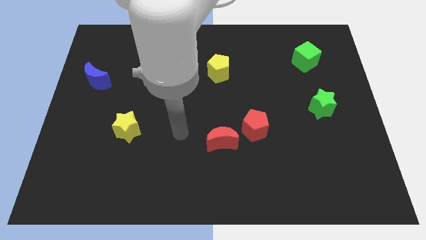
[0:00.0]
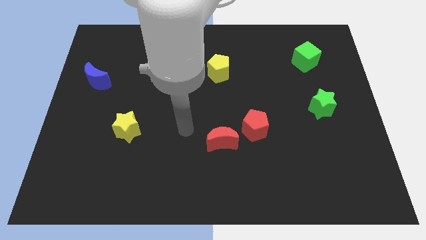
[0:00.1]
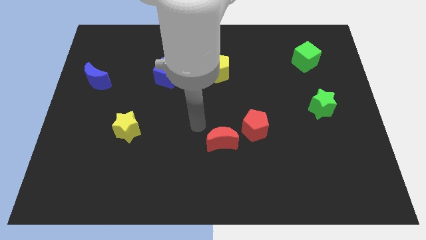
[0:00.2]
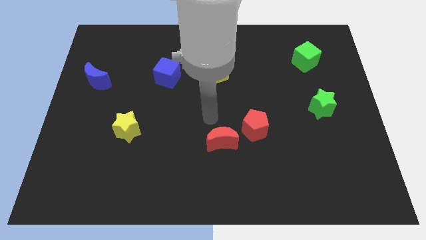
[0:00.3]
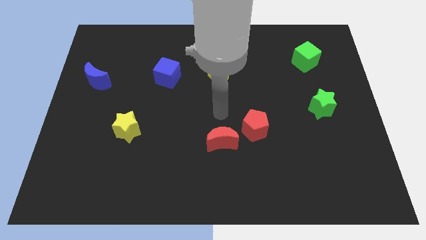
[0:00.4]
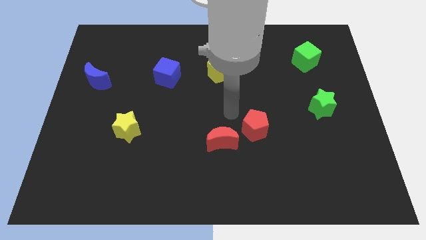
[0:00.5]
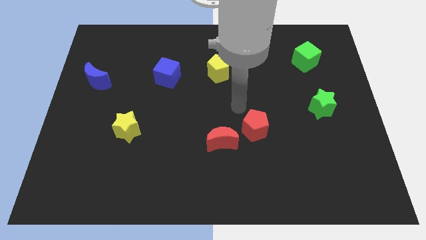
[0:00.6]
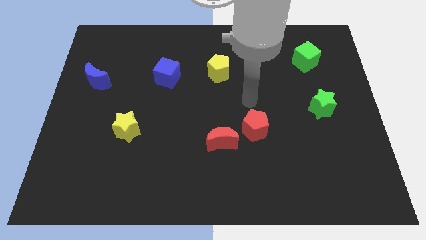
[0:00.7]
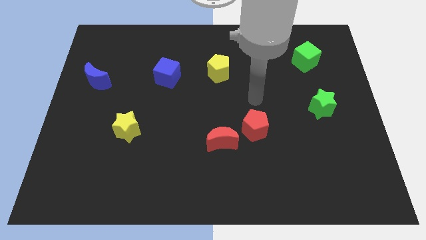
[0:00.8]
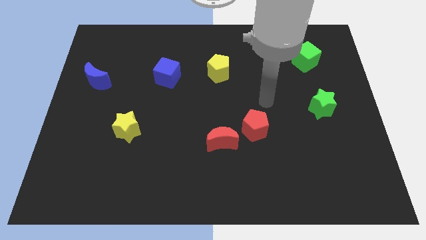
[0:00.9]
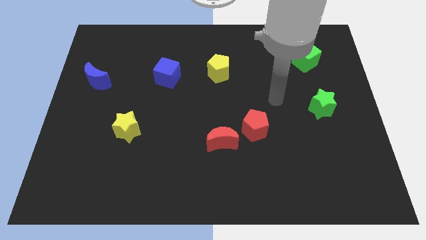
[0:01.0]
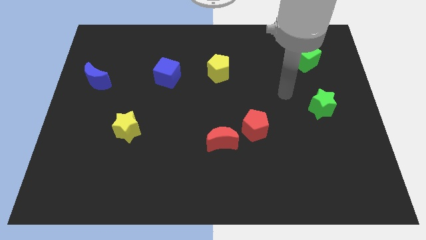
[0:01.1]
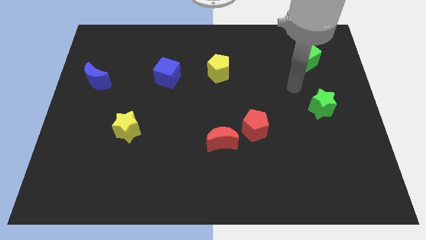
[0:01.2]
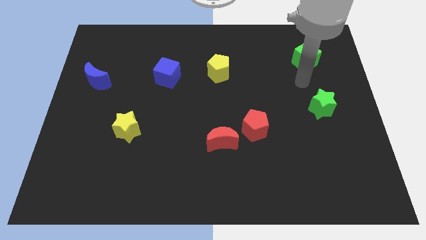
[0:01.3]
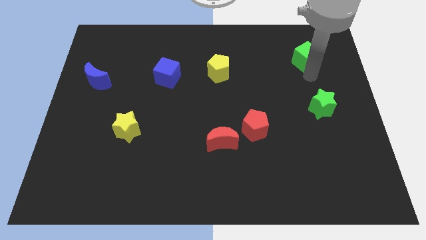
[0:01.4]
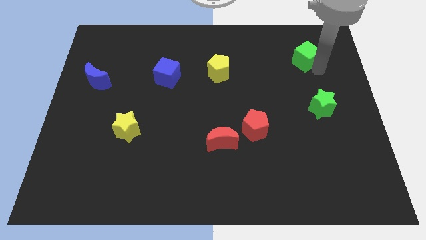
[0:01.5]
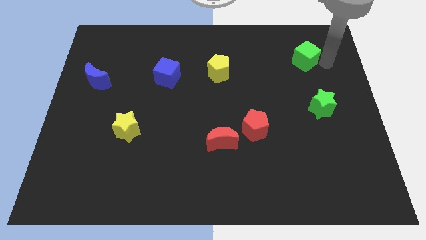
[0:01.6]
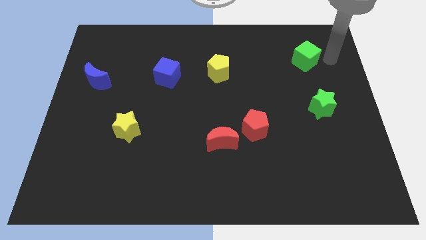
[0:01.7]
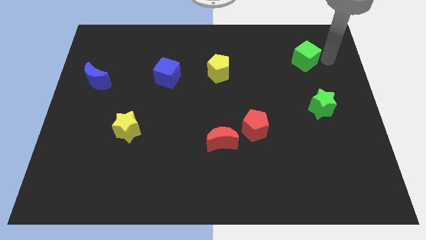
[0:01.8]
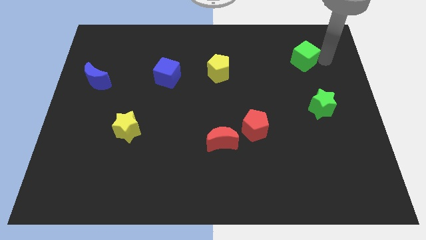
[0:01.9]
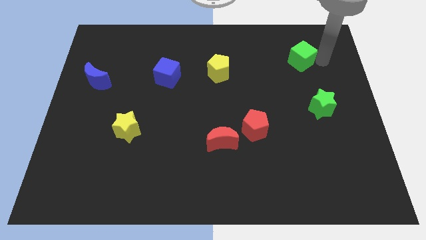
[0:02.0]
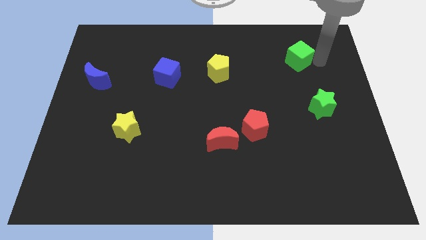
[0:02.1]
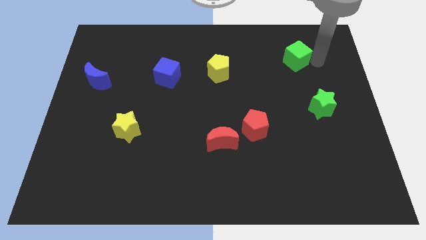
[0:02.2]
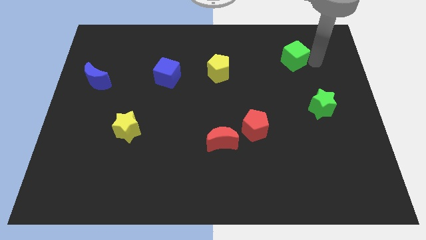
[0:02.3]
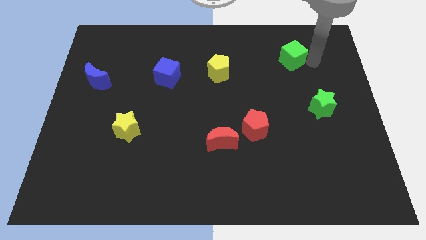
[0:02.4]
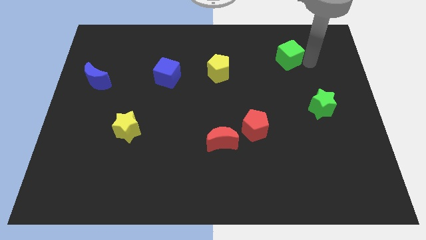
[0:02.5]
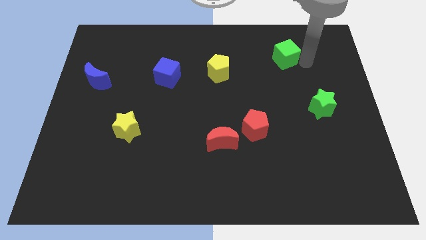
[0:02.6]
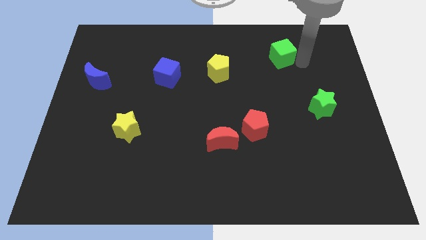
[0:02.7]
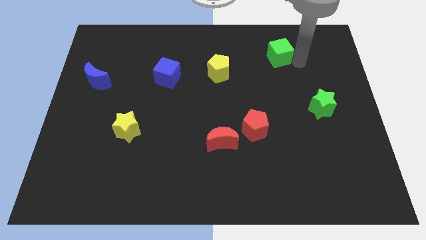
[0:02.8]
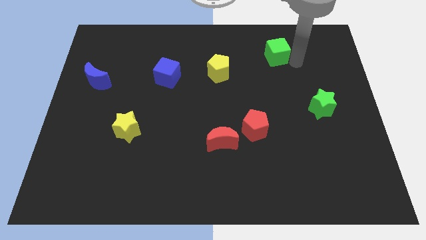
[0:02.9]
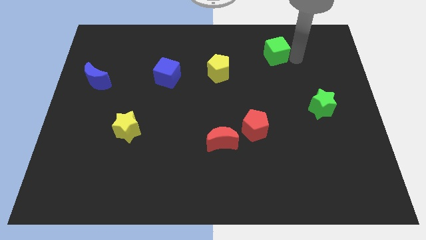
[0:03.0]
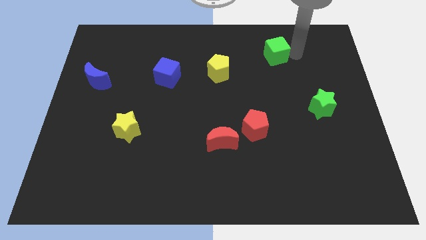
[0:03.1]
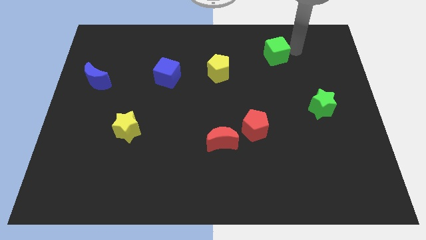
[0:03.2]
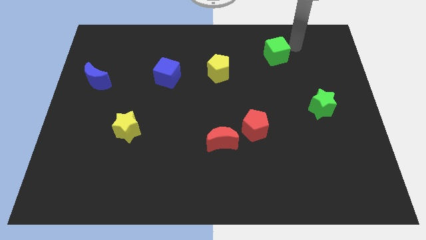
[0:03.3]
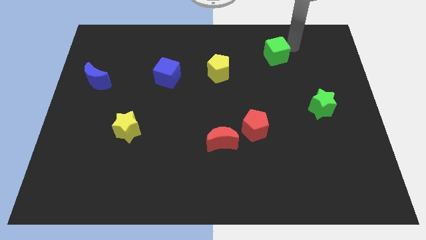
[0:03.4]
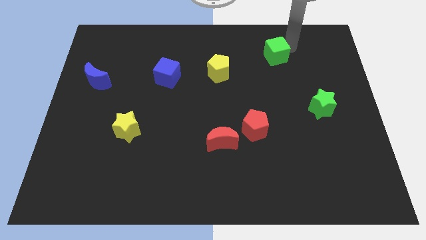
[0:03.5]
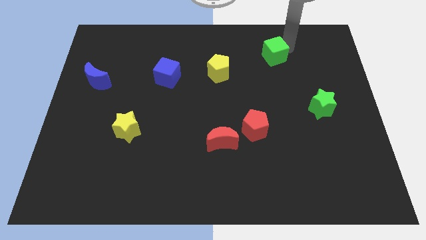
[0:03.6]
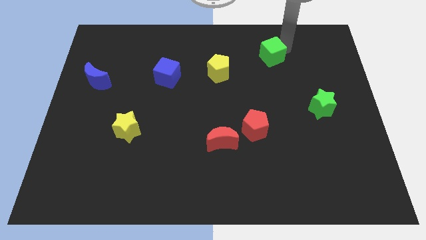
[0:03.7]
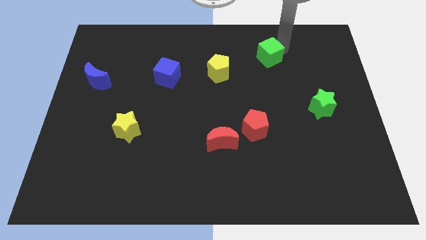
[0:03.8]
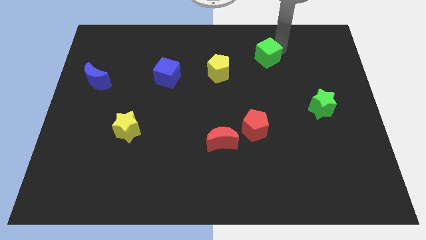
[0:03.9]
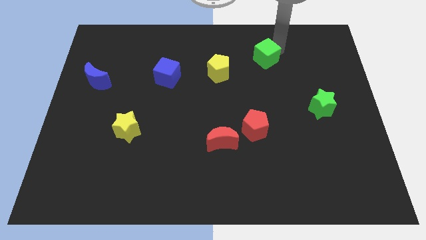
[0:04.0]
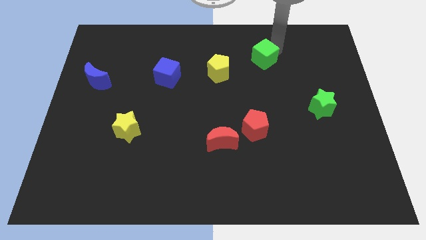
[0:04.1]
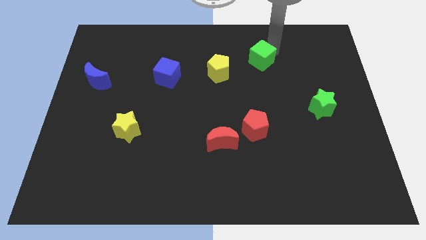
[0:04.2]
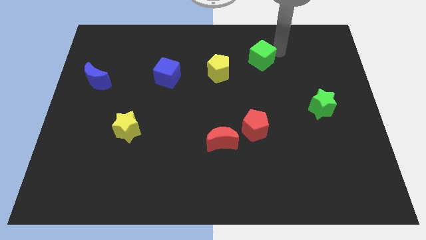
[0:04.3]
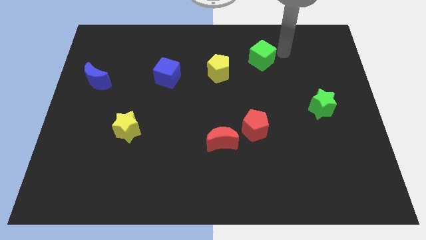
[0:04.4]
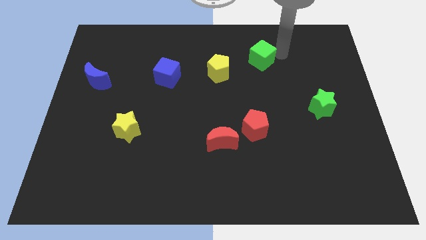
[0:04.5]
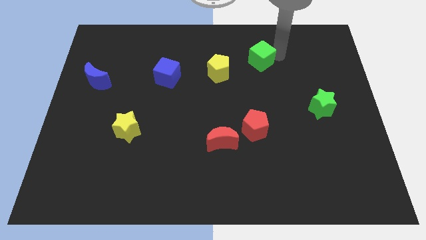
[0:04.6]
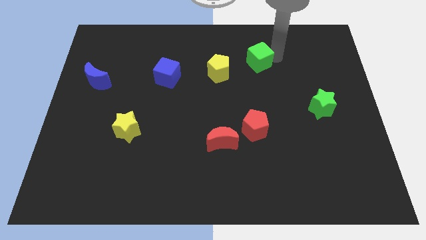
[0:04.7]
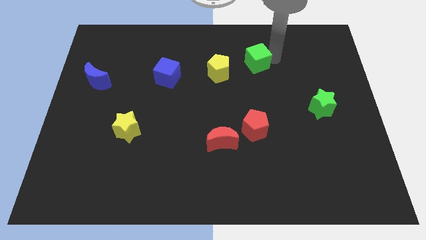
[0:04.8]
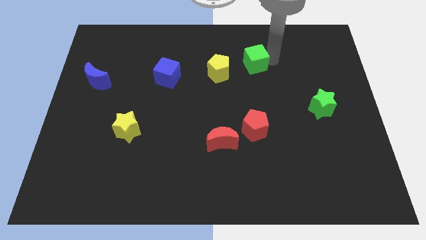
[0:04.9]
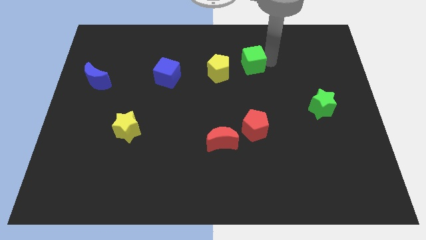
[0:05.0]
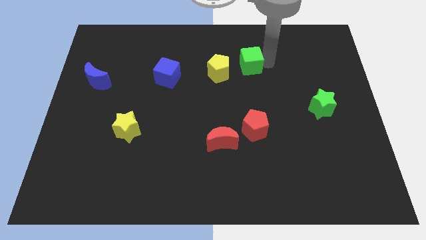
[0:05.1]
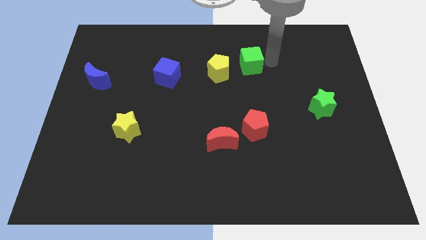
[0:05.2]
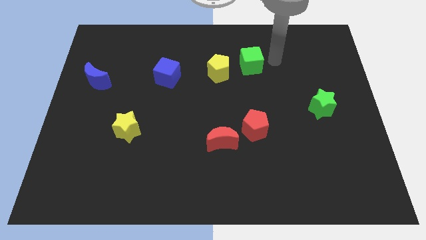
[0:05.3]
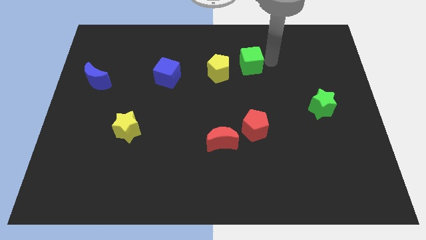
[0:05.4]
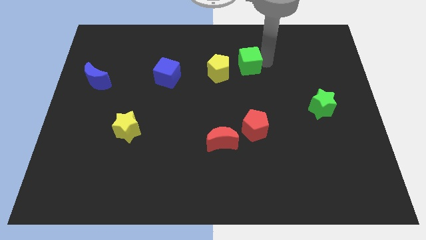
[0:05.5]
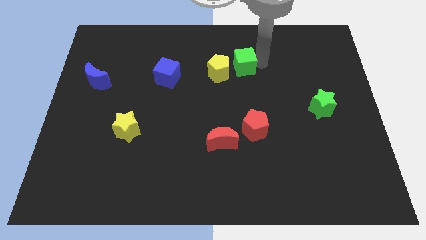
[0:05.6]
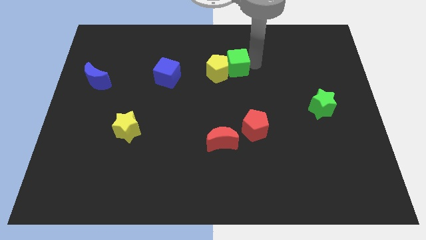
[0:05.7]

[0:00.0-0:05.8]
move the green cube to the yellow pentagon
